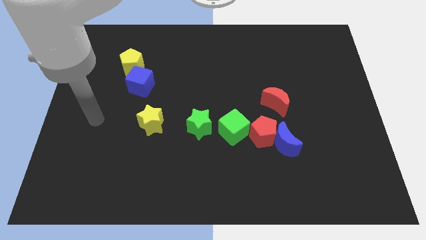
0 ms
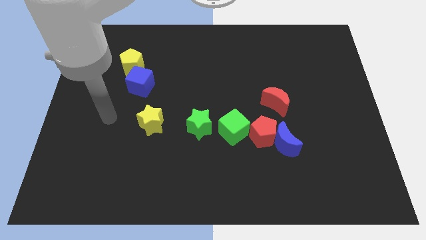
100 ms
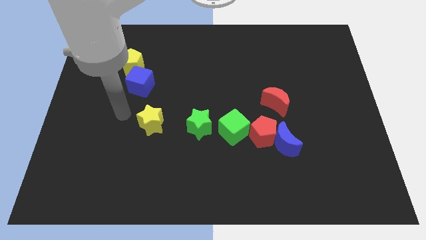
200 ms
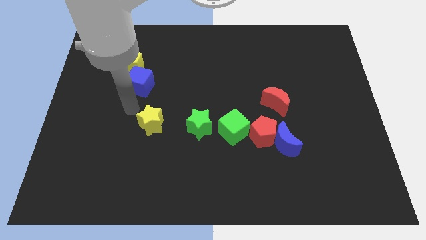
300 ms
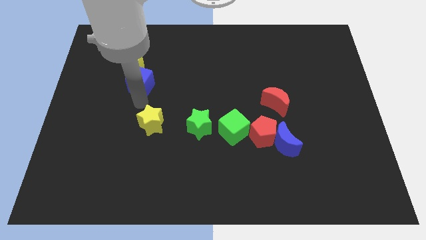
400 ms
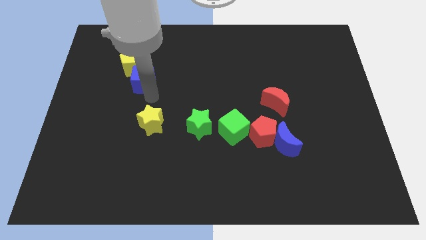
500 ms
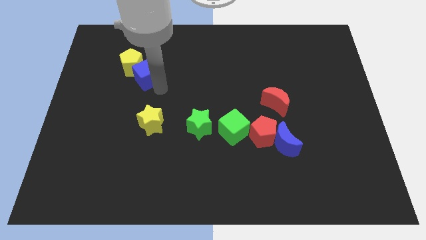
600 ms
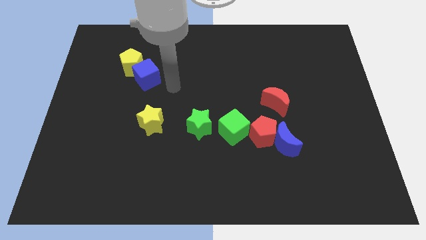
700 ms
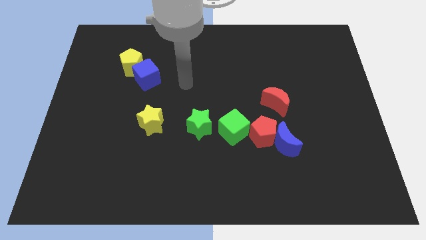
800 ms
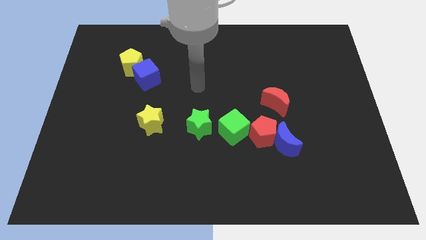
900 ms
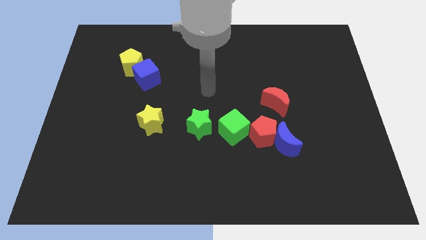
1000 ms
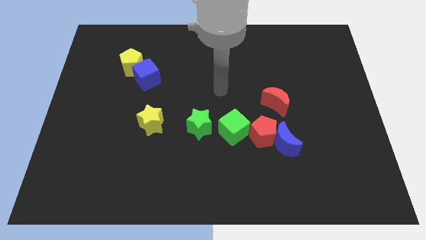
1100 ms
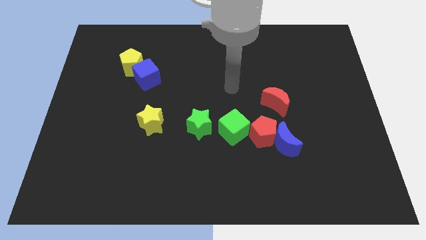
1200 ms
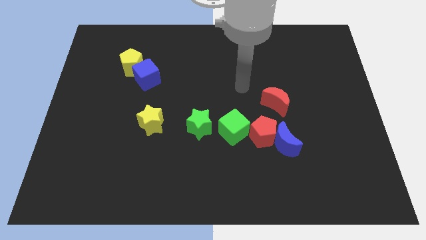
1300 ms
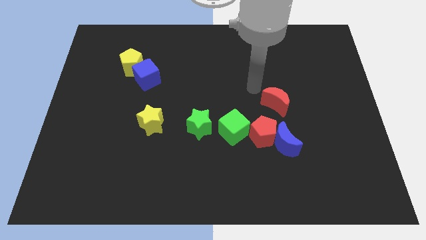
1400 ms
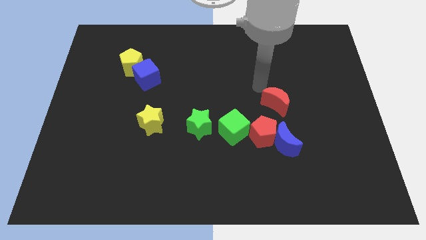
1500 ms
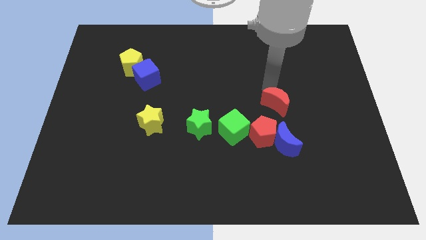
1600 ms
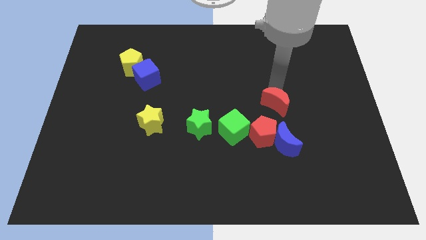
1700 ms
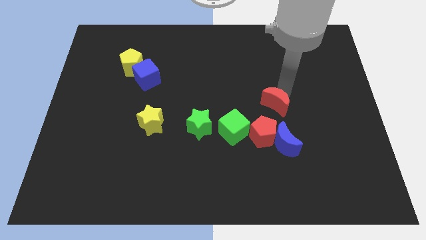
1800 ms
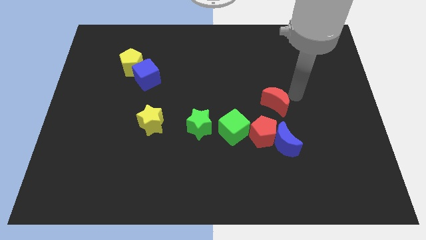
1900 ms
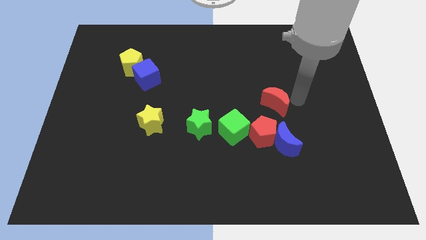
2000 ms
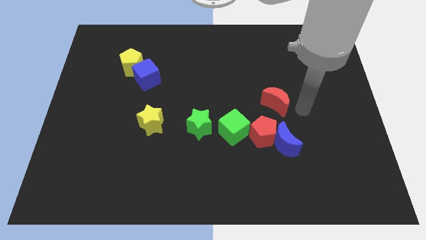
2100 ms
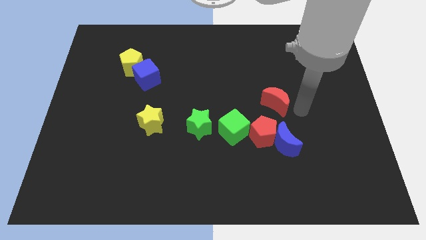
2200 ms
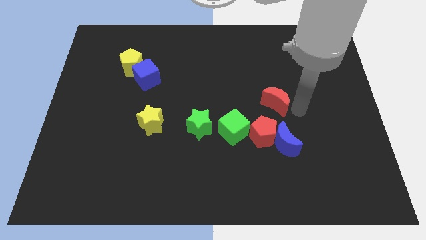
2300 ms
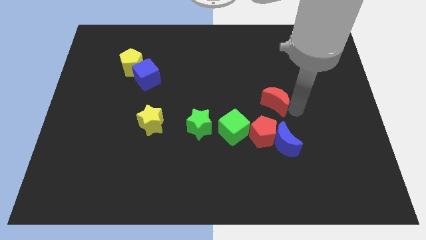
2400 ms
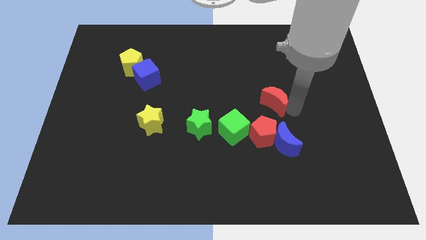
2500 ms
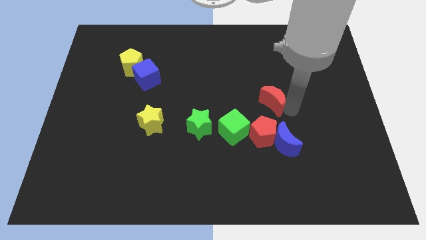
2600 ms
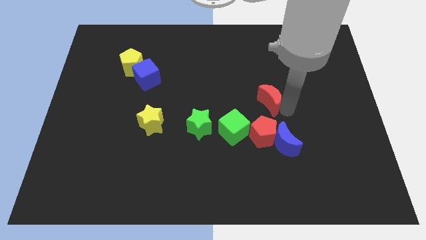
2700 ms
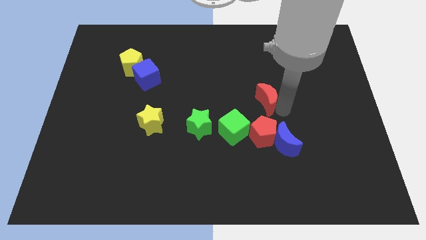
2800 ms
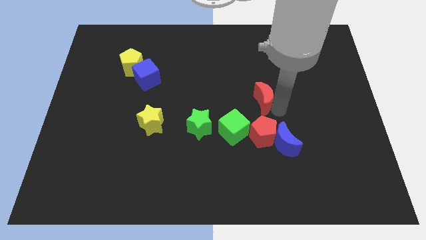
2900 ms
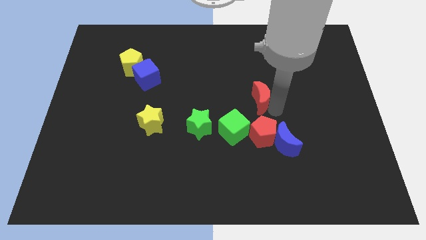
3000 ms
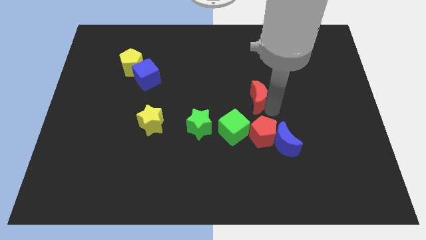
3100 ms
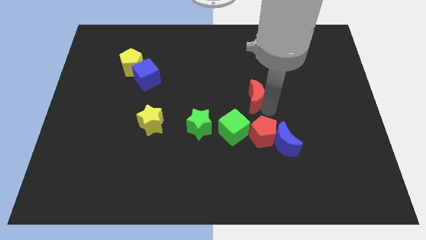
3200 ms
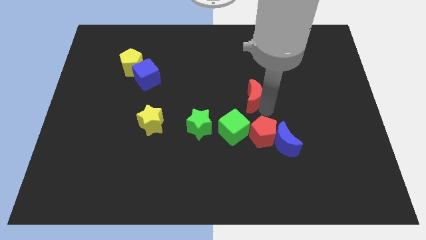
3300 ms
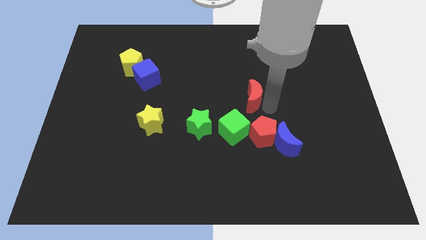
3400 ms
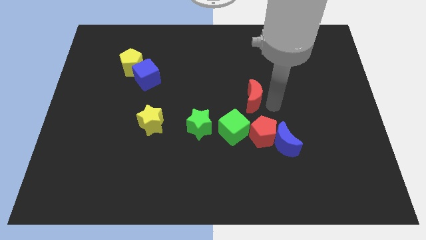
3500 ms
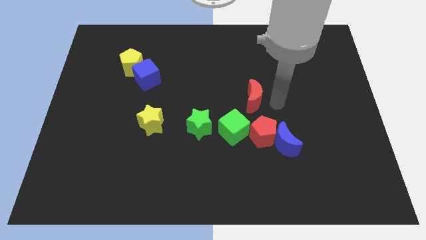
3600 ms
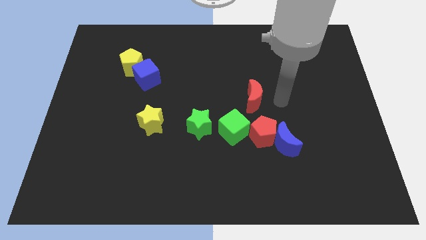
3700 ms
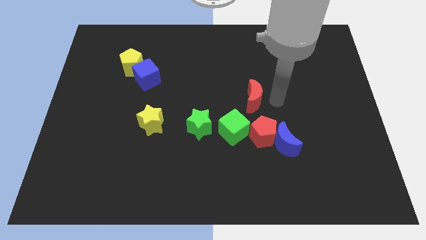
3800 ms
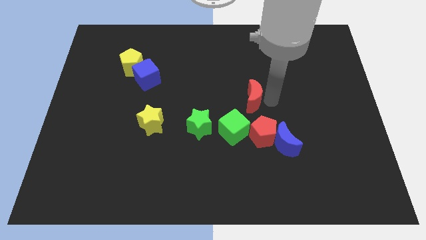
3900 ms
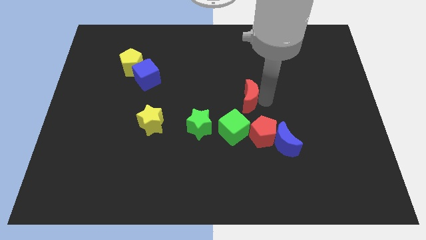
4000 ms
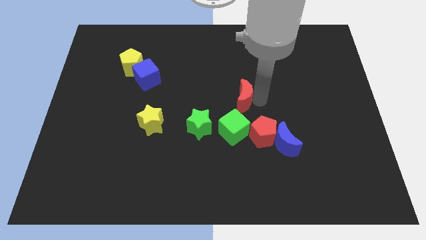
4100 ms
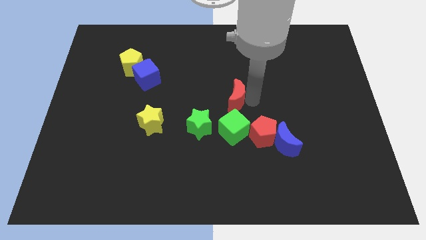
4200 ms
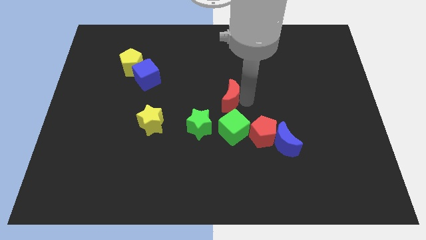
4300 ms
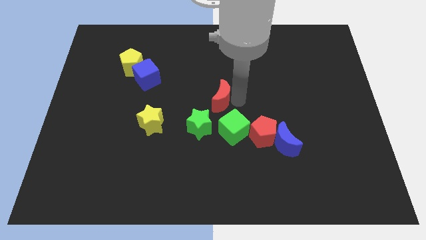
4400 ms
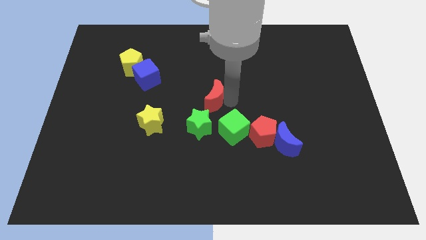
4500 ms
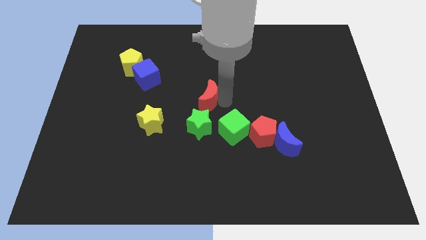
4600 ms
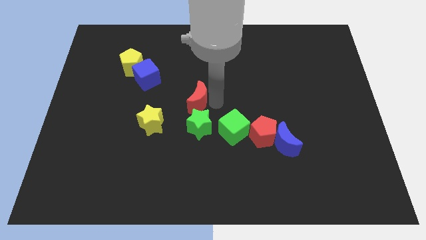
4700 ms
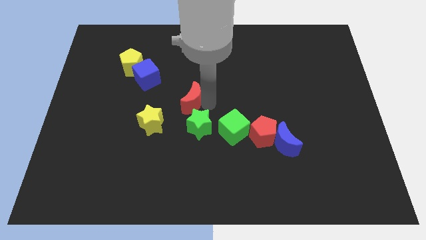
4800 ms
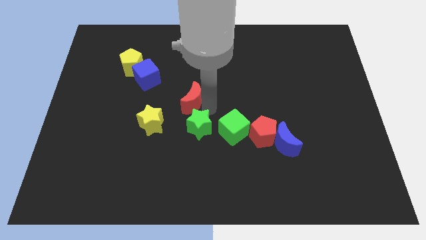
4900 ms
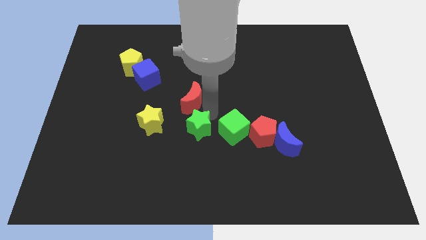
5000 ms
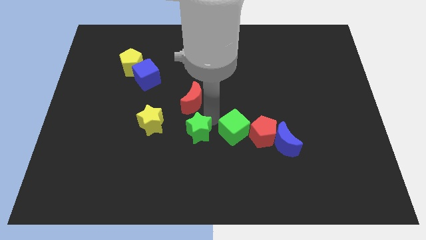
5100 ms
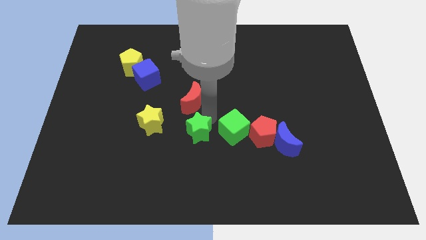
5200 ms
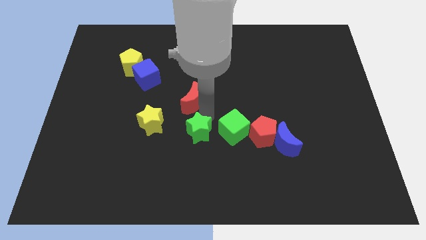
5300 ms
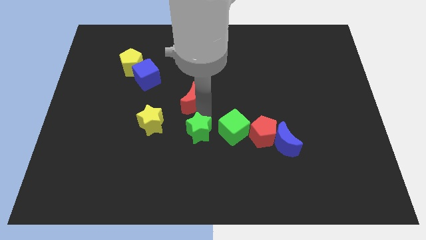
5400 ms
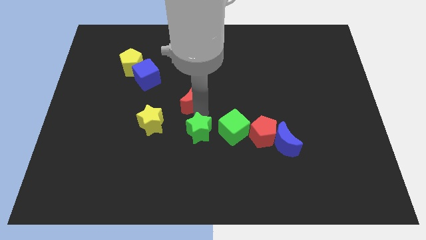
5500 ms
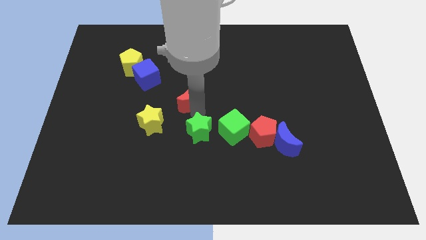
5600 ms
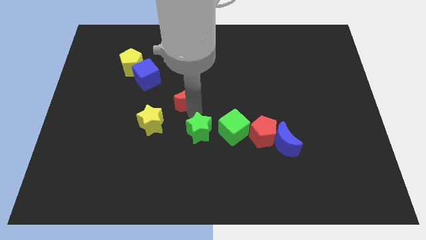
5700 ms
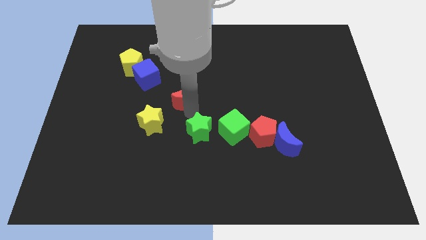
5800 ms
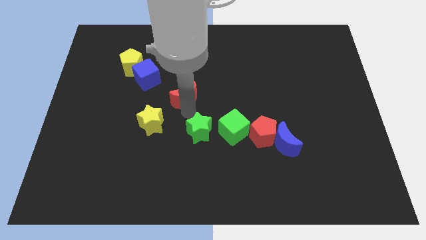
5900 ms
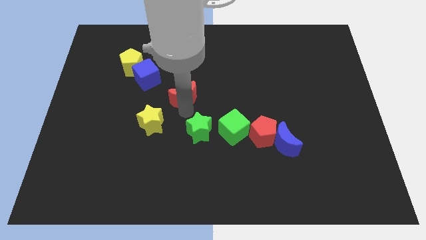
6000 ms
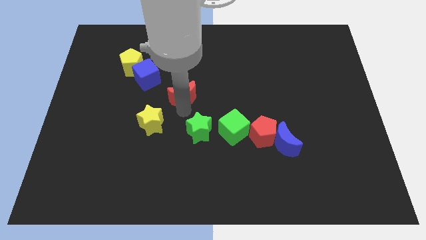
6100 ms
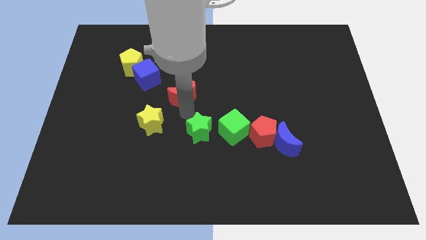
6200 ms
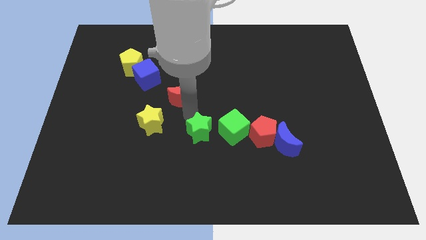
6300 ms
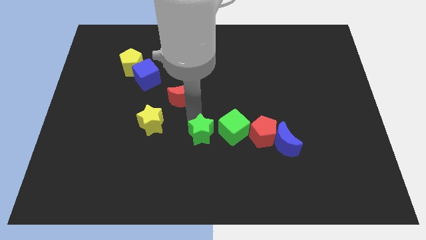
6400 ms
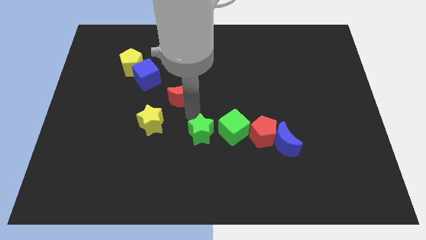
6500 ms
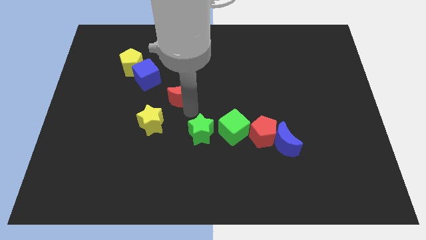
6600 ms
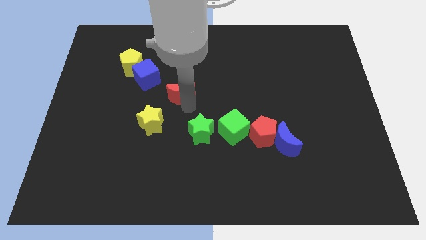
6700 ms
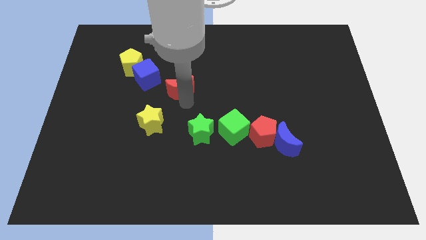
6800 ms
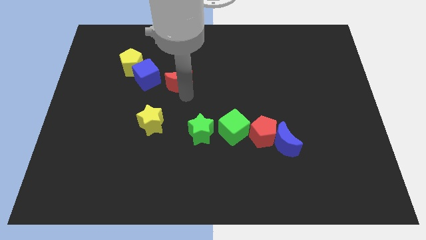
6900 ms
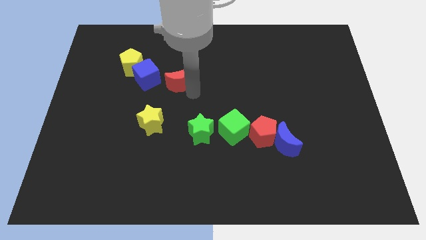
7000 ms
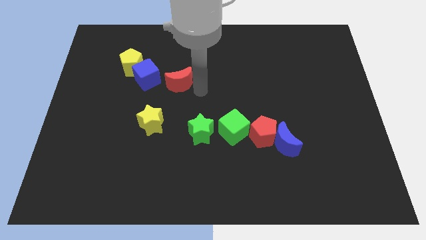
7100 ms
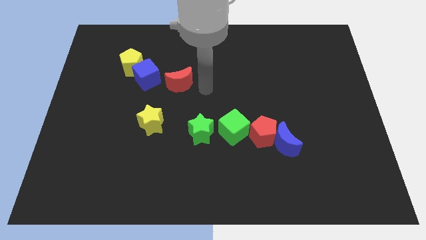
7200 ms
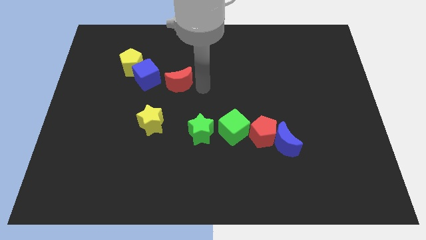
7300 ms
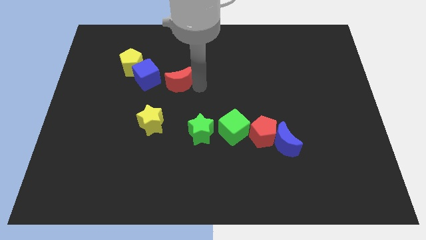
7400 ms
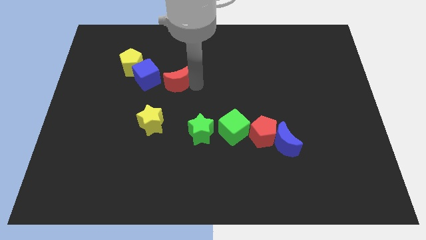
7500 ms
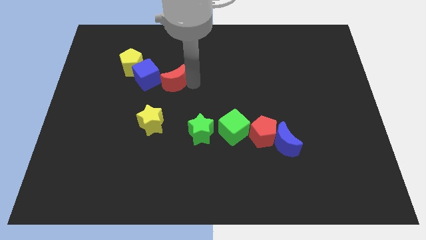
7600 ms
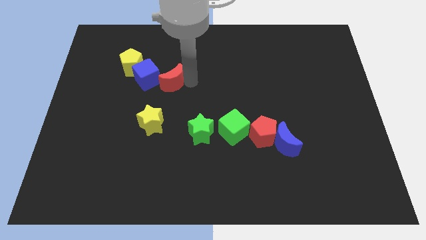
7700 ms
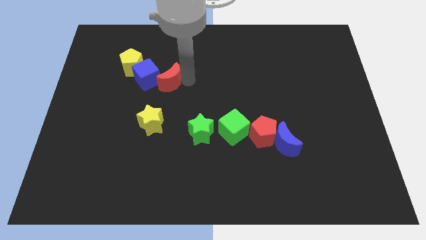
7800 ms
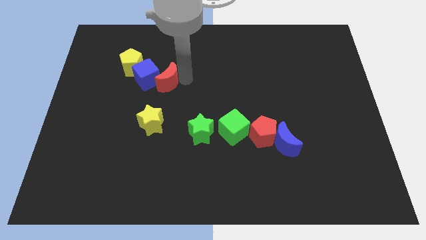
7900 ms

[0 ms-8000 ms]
push the red moon to the blue cube
